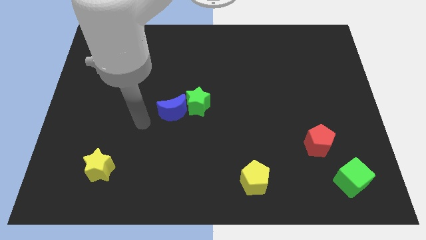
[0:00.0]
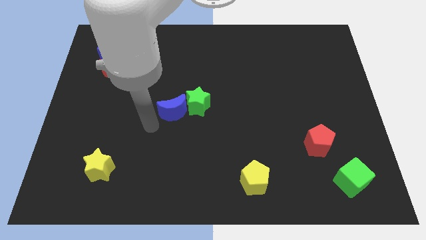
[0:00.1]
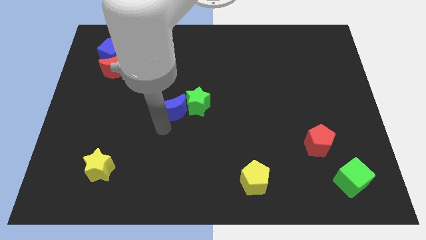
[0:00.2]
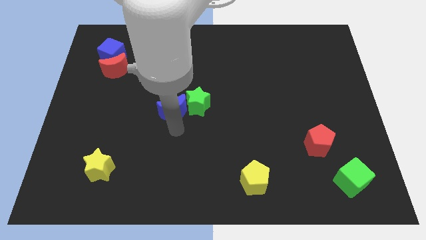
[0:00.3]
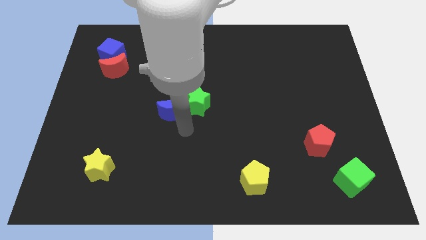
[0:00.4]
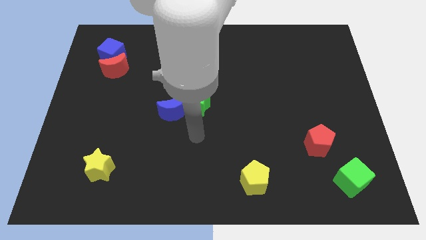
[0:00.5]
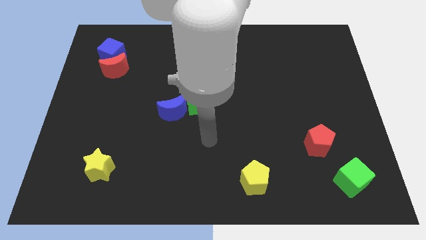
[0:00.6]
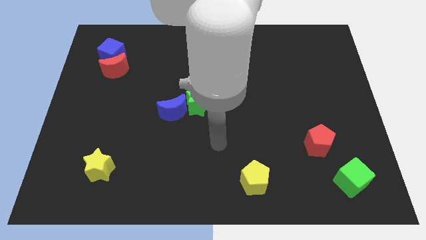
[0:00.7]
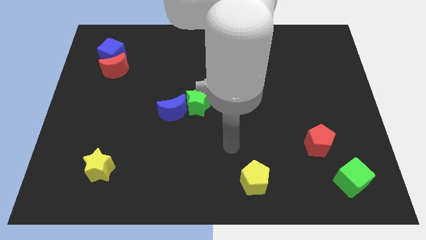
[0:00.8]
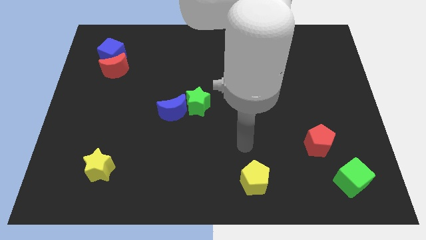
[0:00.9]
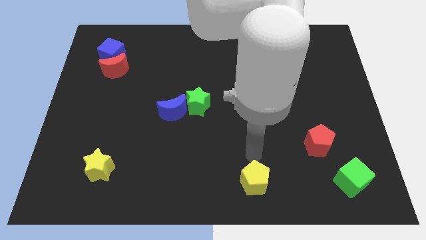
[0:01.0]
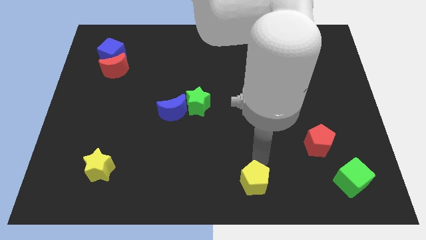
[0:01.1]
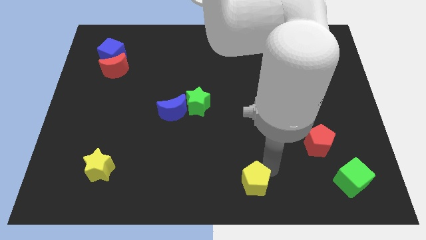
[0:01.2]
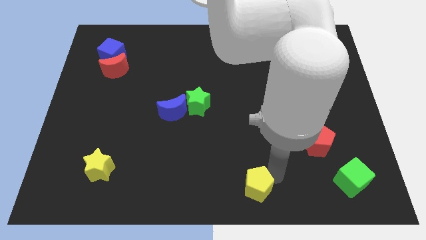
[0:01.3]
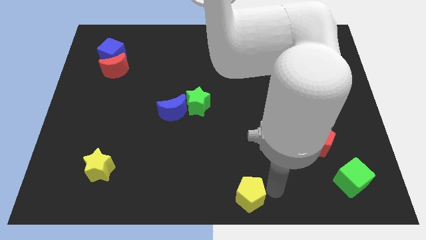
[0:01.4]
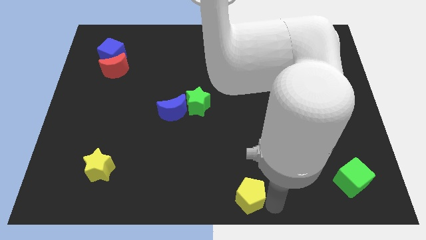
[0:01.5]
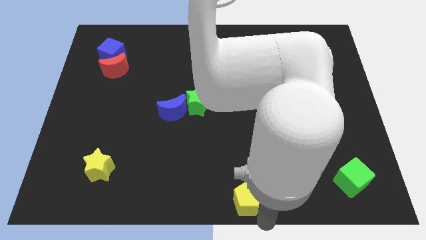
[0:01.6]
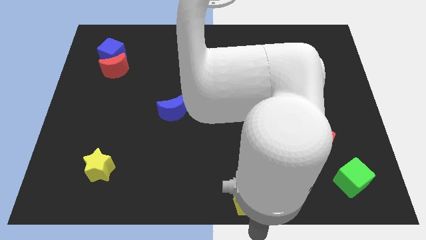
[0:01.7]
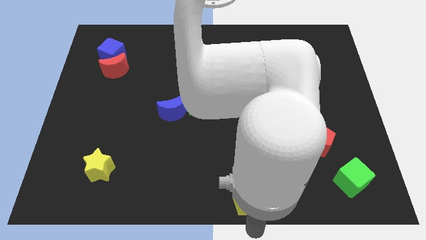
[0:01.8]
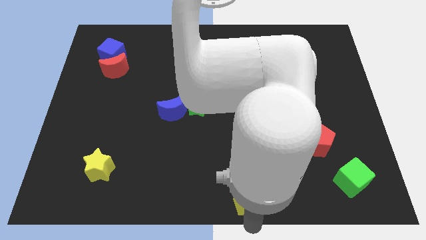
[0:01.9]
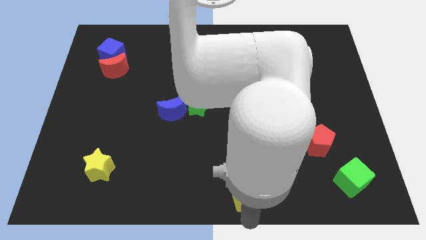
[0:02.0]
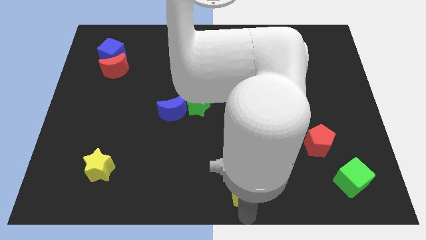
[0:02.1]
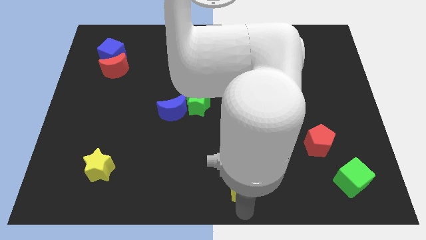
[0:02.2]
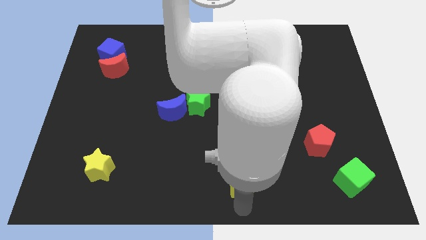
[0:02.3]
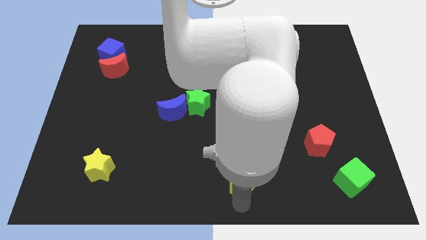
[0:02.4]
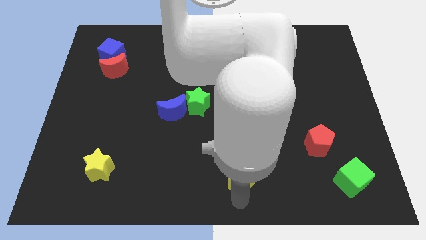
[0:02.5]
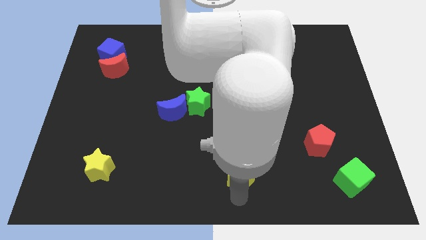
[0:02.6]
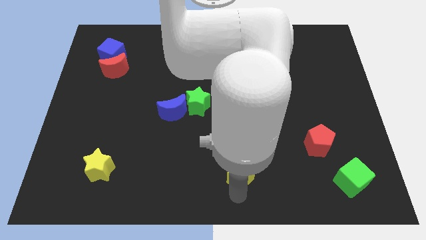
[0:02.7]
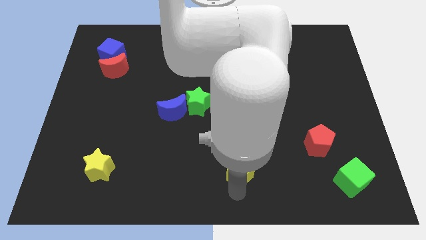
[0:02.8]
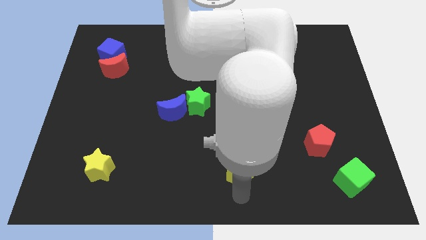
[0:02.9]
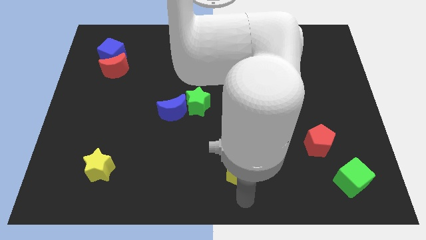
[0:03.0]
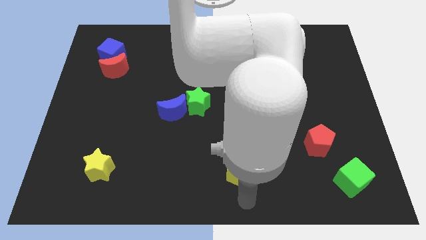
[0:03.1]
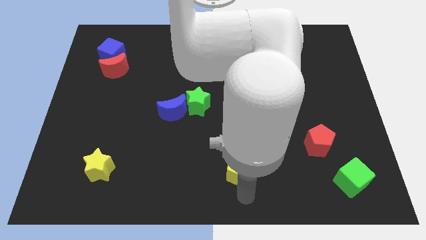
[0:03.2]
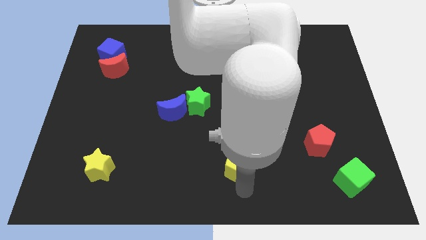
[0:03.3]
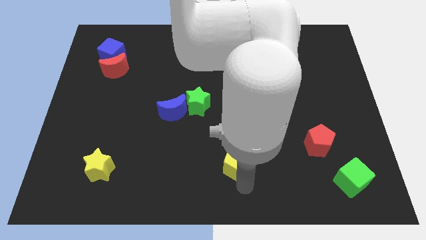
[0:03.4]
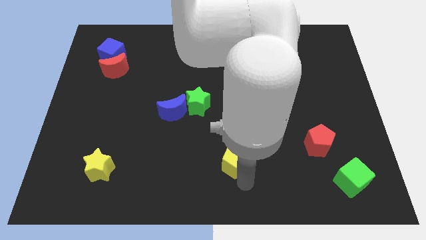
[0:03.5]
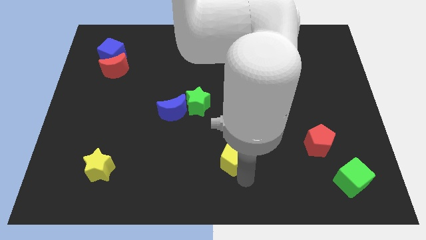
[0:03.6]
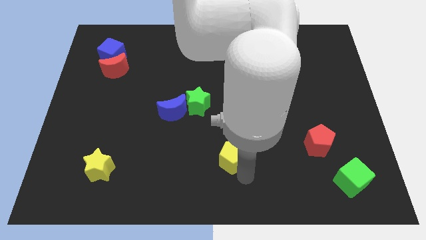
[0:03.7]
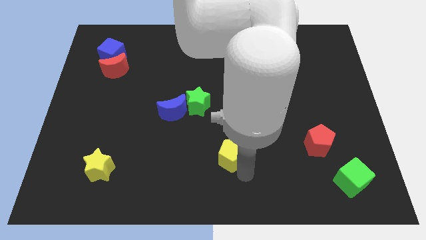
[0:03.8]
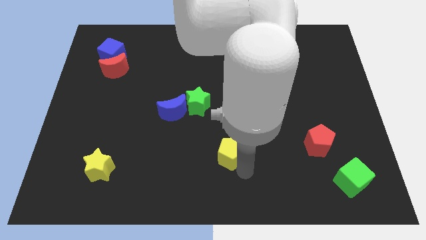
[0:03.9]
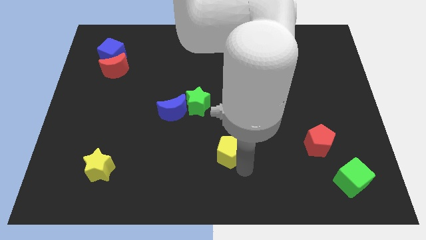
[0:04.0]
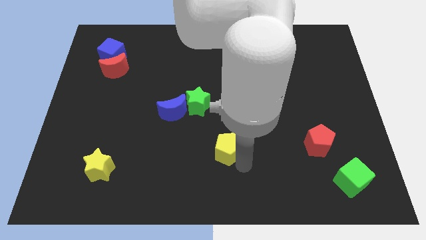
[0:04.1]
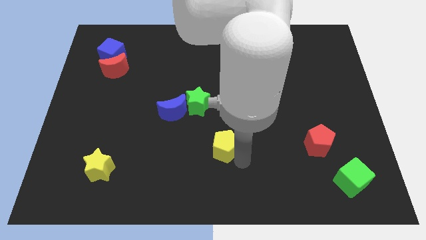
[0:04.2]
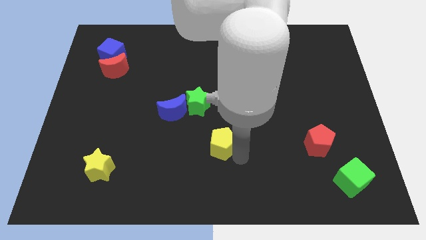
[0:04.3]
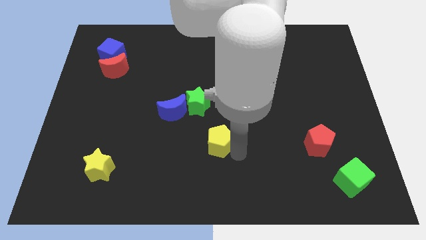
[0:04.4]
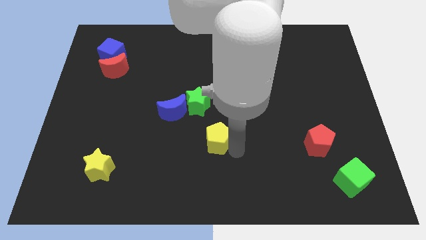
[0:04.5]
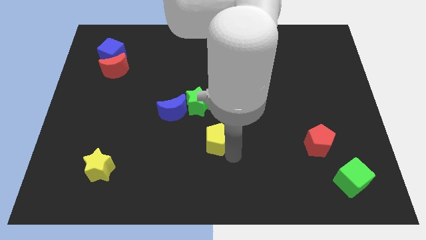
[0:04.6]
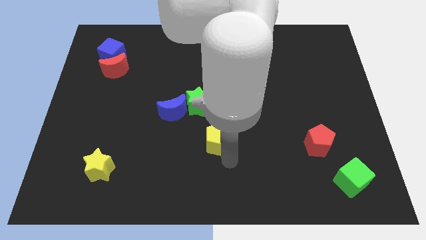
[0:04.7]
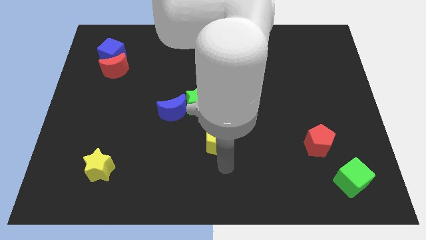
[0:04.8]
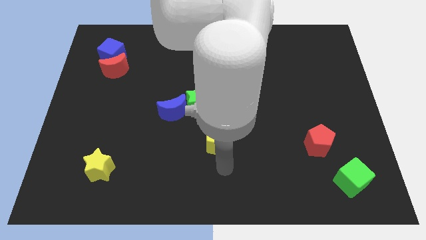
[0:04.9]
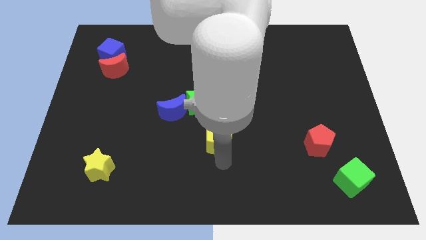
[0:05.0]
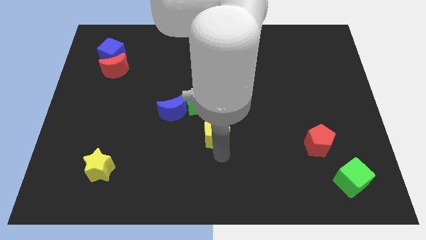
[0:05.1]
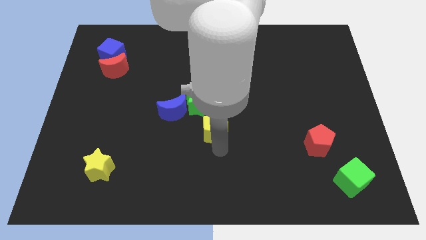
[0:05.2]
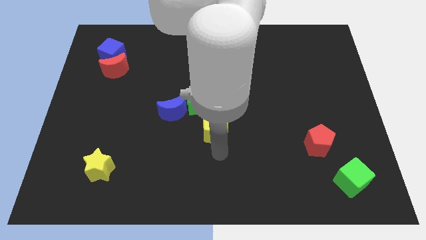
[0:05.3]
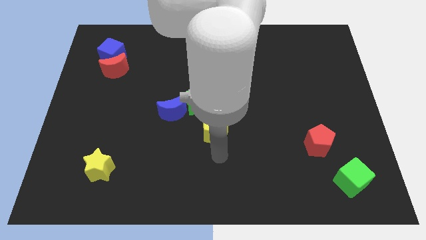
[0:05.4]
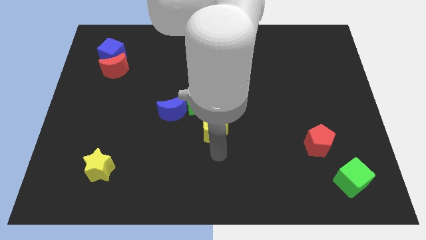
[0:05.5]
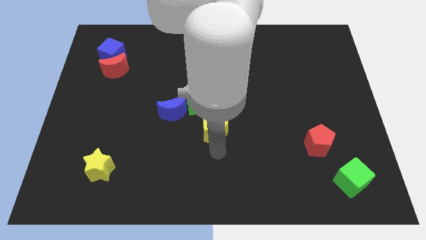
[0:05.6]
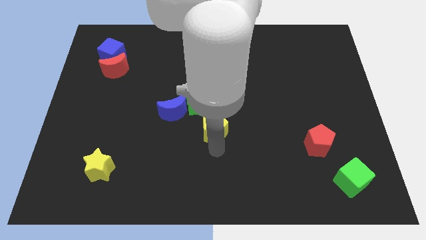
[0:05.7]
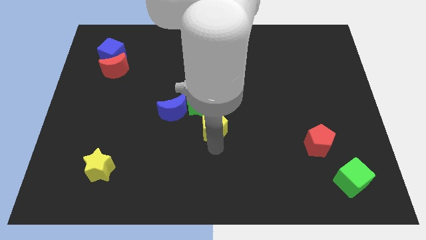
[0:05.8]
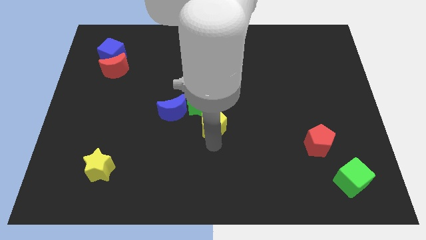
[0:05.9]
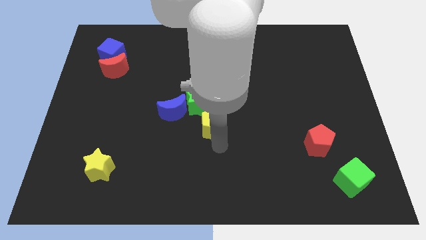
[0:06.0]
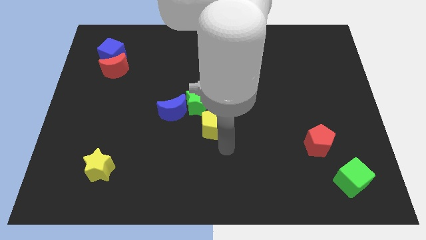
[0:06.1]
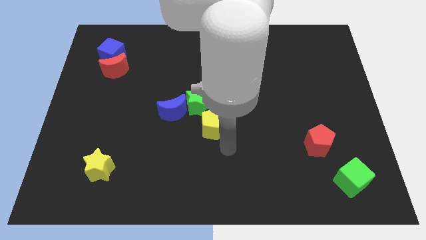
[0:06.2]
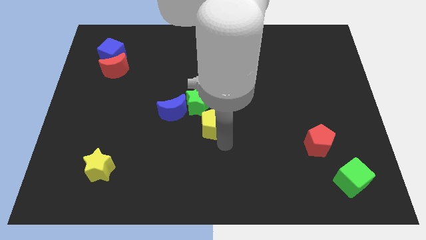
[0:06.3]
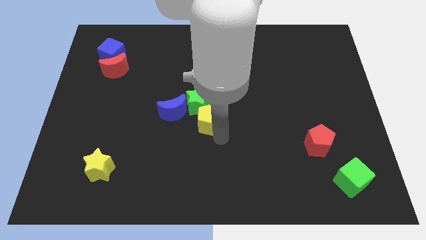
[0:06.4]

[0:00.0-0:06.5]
push the yellow pentagon close to the green star
